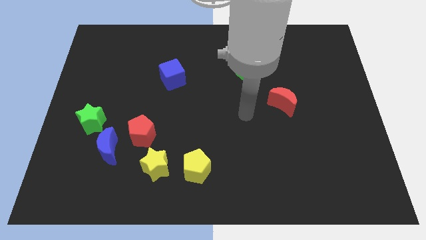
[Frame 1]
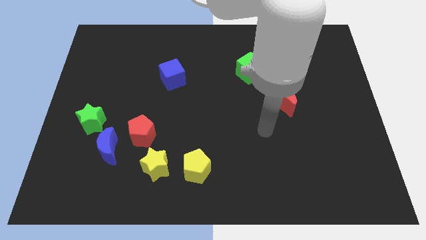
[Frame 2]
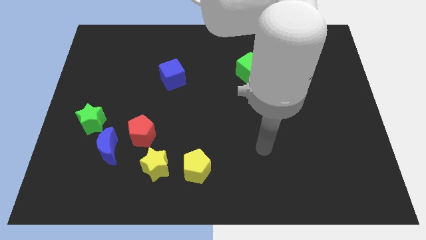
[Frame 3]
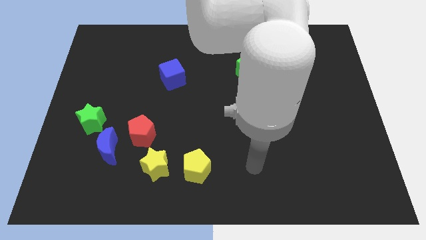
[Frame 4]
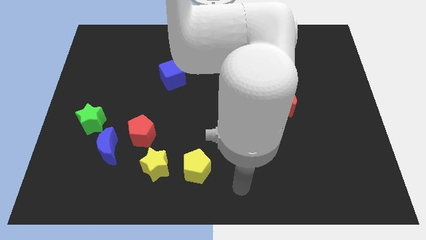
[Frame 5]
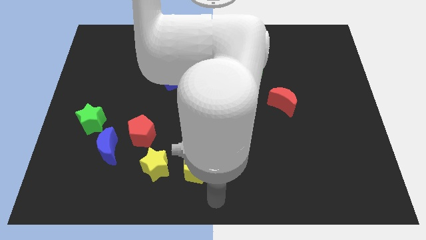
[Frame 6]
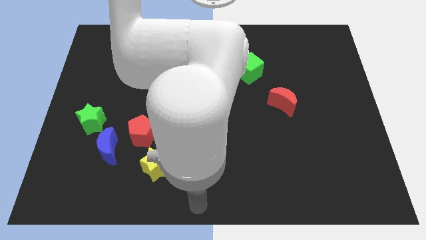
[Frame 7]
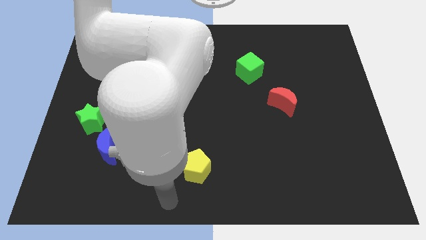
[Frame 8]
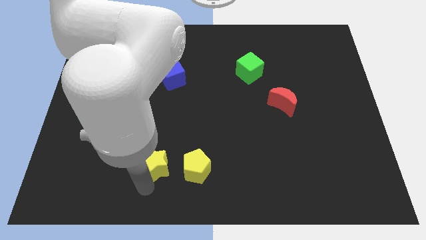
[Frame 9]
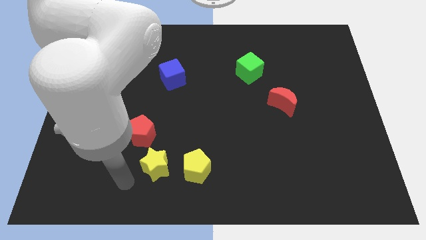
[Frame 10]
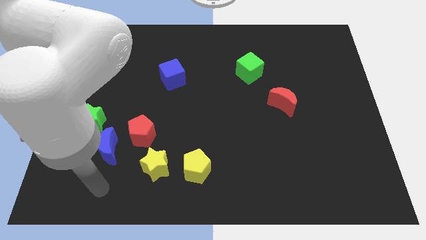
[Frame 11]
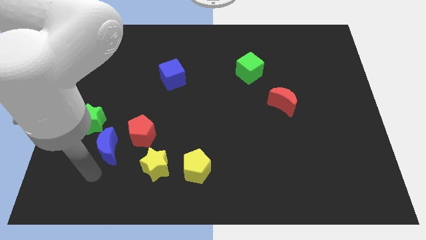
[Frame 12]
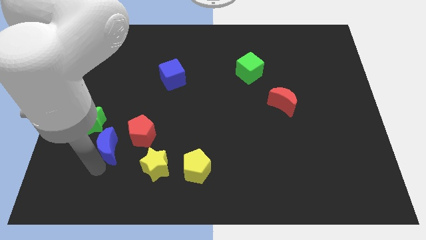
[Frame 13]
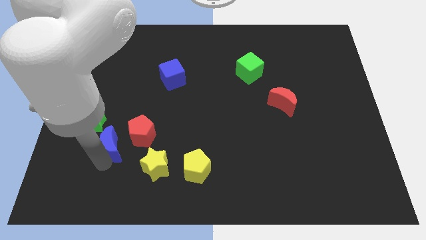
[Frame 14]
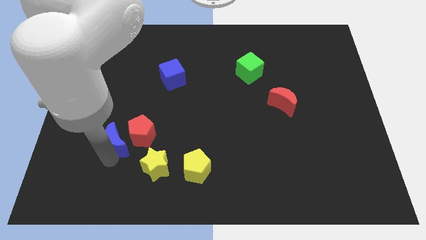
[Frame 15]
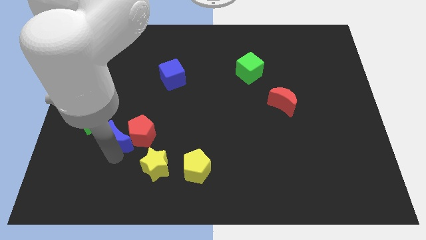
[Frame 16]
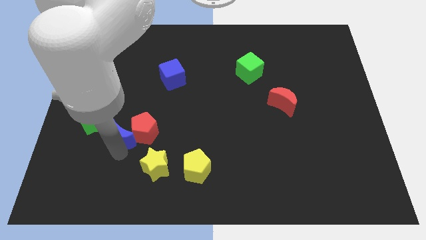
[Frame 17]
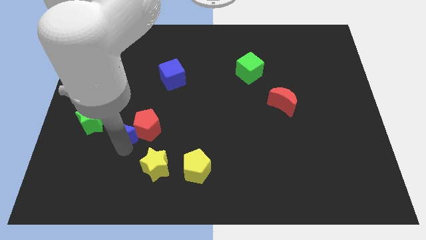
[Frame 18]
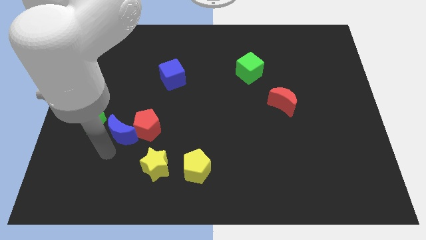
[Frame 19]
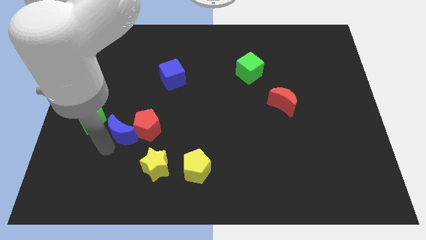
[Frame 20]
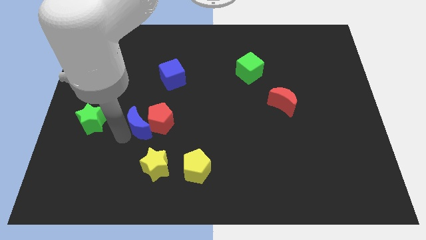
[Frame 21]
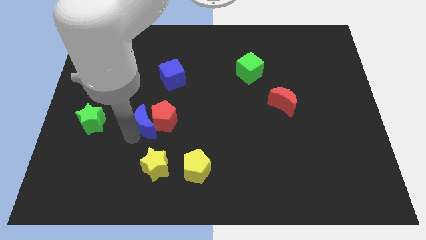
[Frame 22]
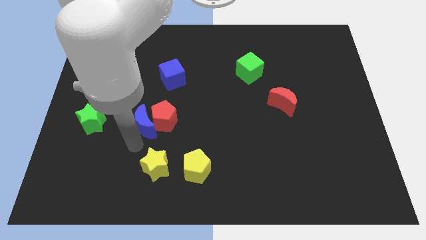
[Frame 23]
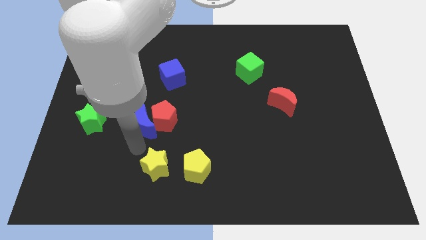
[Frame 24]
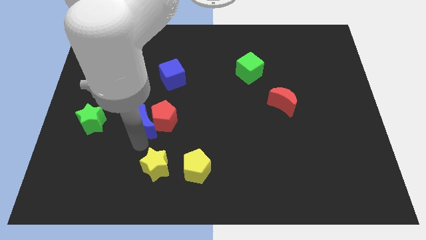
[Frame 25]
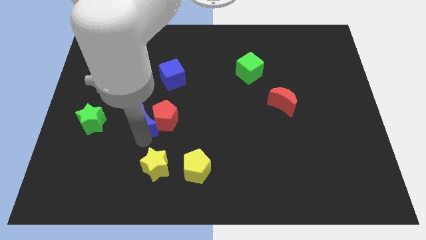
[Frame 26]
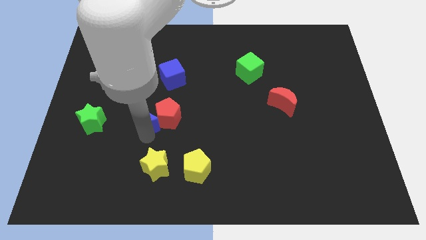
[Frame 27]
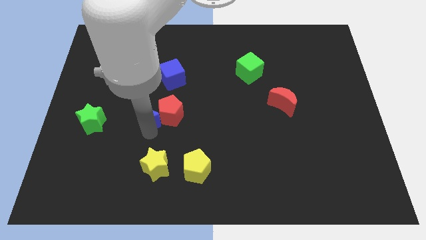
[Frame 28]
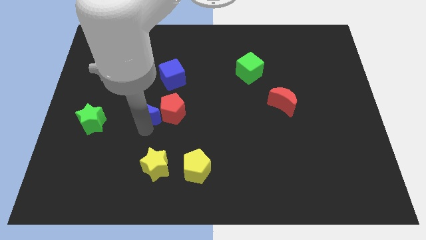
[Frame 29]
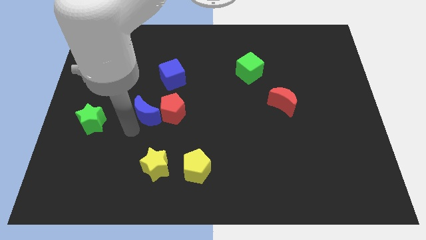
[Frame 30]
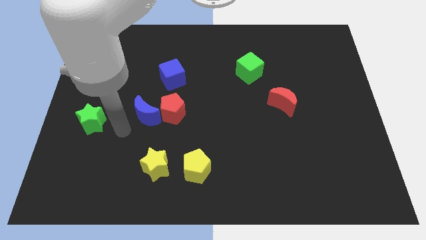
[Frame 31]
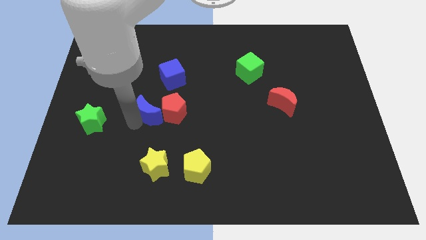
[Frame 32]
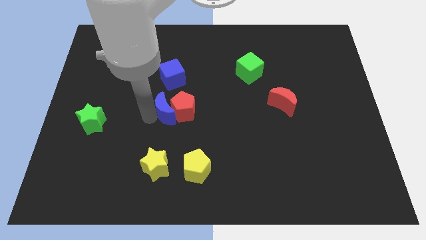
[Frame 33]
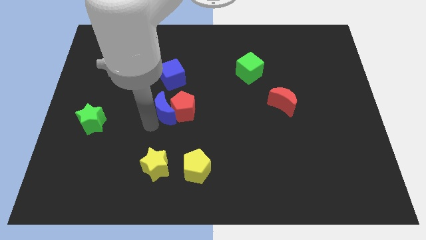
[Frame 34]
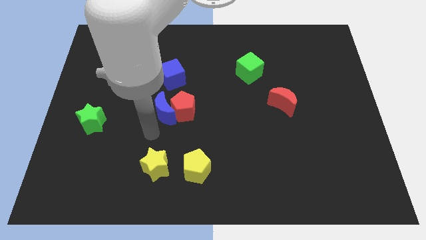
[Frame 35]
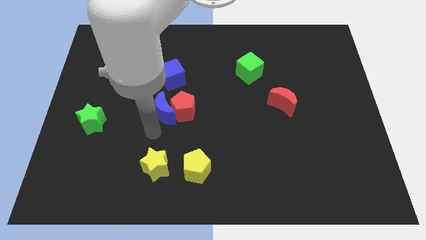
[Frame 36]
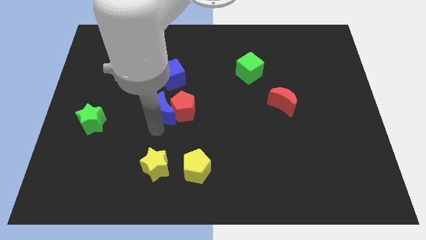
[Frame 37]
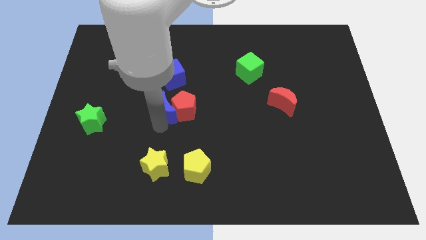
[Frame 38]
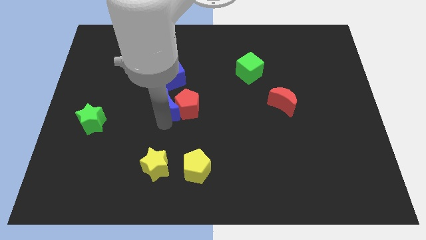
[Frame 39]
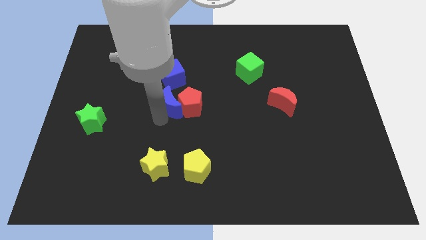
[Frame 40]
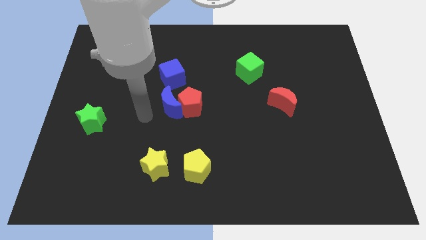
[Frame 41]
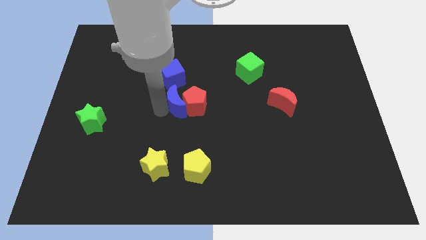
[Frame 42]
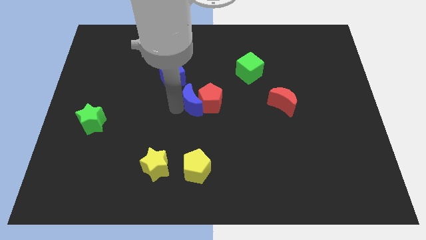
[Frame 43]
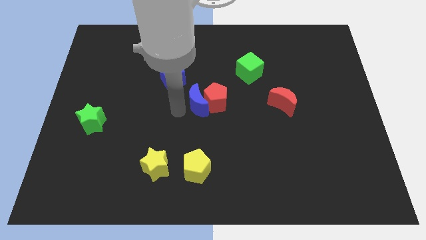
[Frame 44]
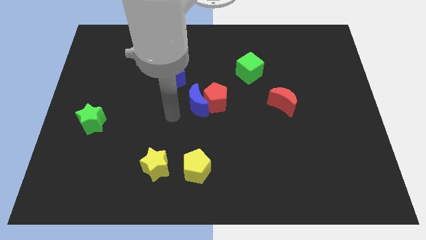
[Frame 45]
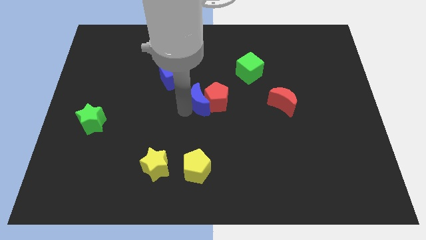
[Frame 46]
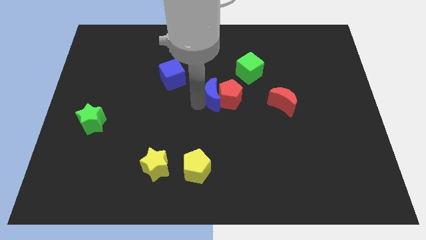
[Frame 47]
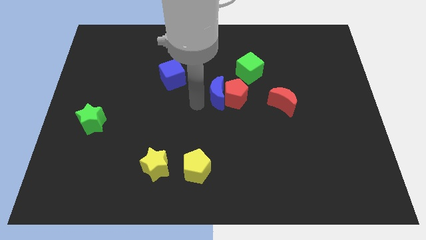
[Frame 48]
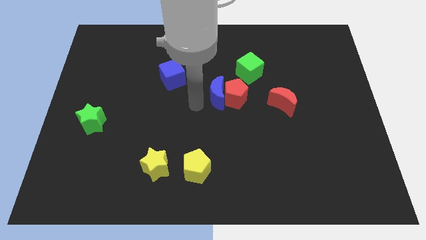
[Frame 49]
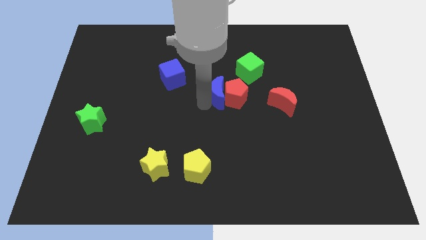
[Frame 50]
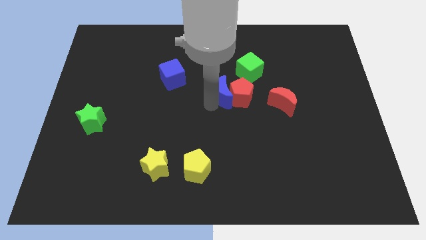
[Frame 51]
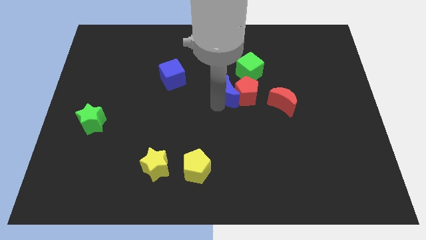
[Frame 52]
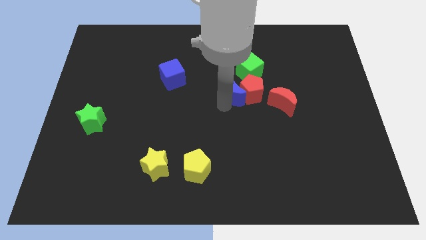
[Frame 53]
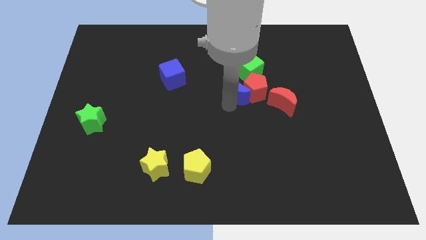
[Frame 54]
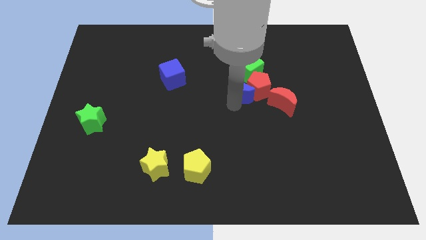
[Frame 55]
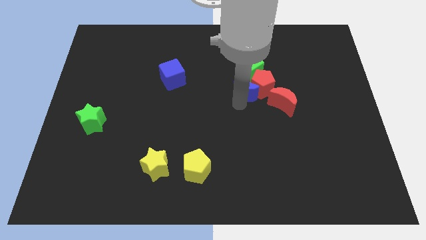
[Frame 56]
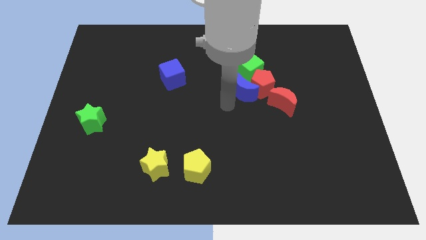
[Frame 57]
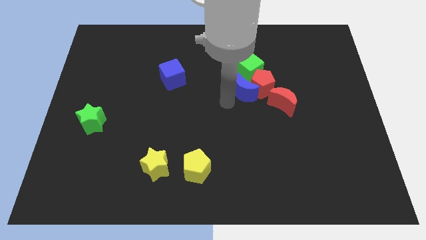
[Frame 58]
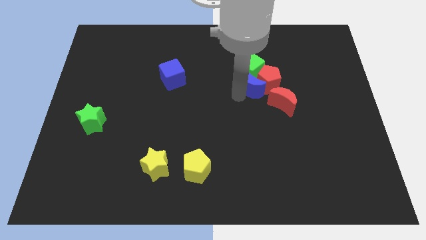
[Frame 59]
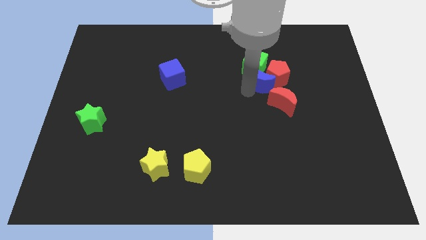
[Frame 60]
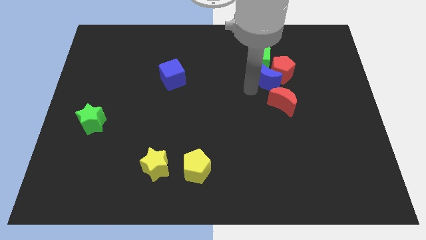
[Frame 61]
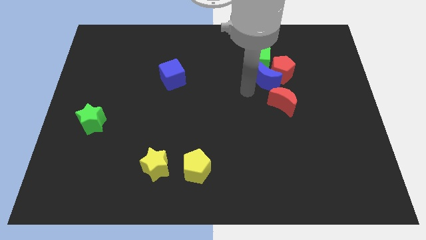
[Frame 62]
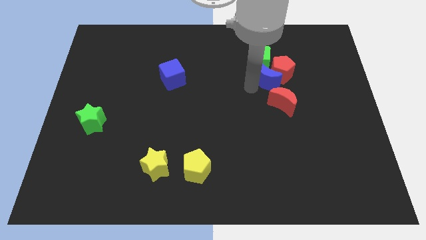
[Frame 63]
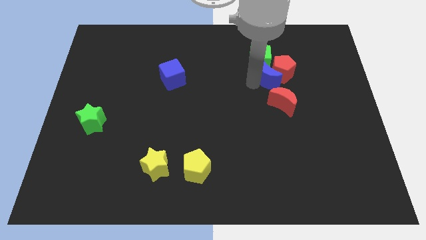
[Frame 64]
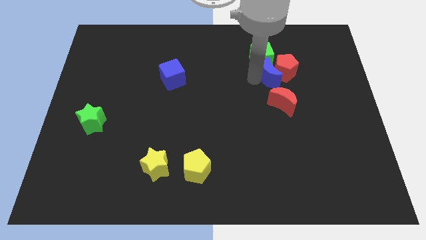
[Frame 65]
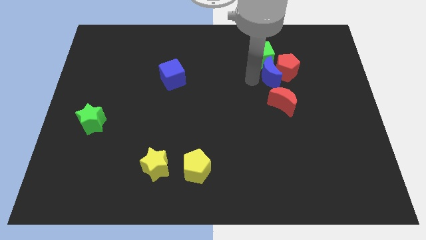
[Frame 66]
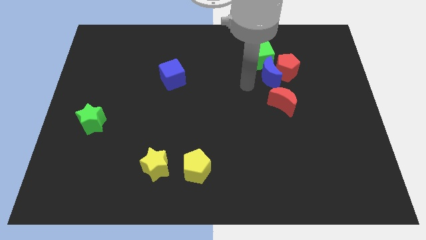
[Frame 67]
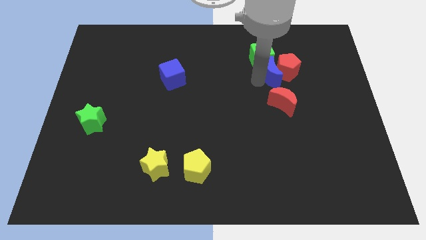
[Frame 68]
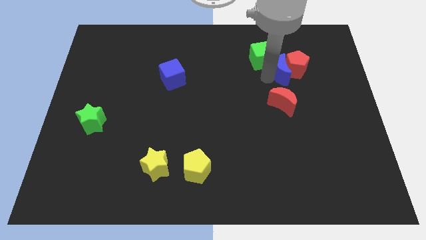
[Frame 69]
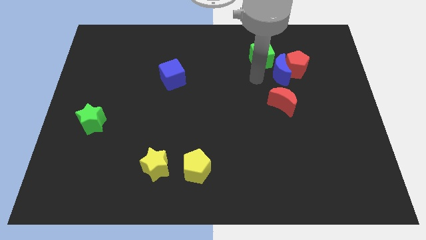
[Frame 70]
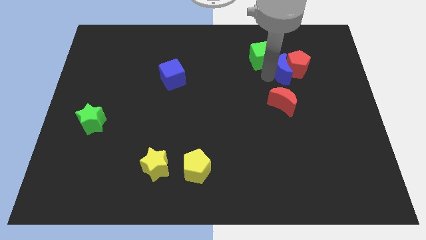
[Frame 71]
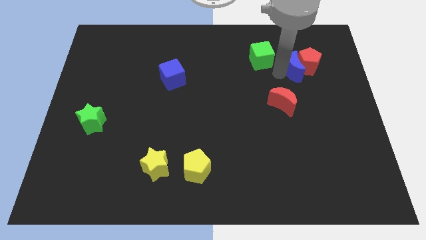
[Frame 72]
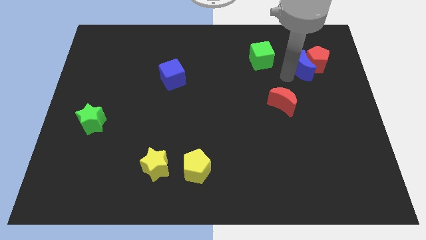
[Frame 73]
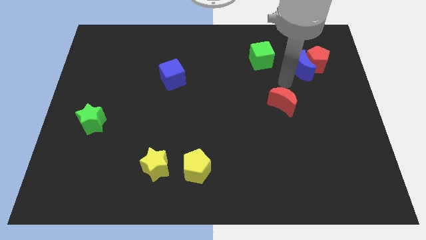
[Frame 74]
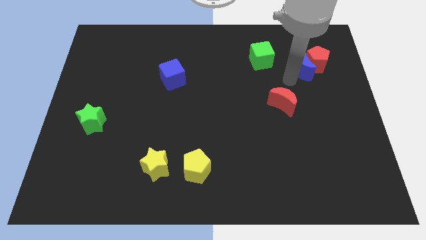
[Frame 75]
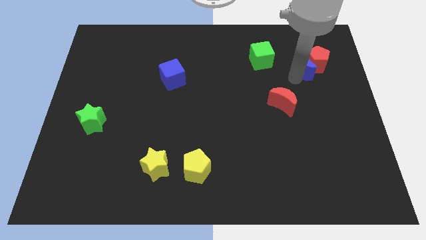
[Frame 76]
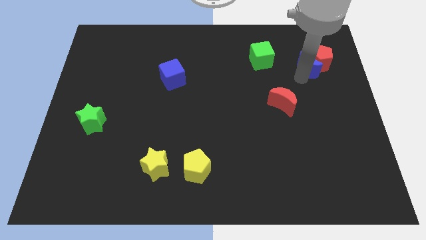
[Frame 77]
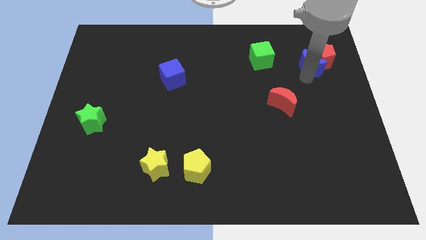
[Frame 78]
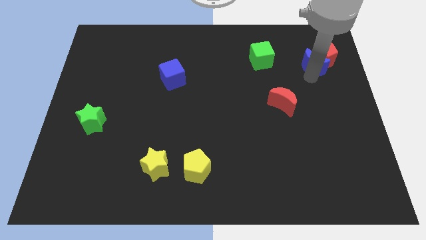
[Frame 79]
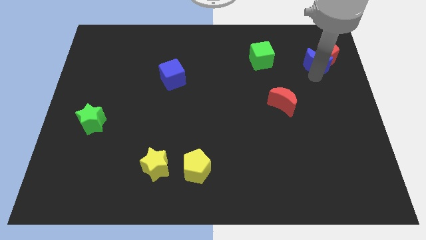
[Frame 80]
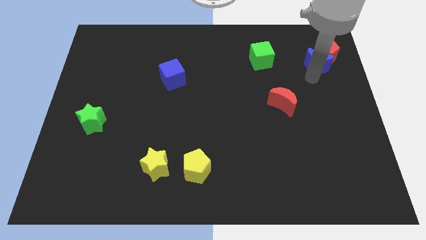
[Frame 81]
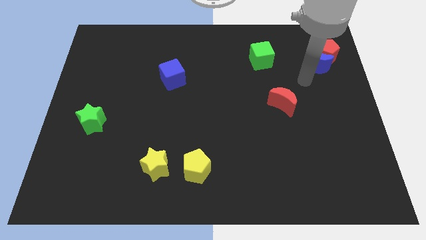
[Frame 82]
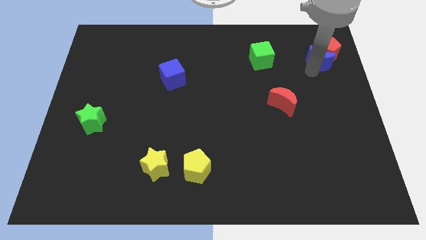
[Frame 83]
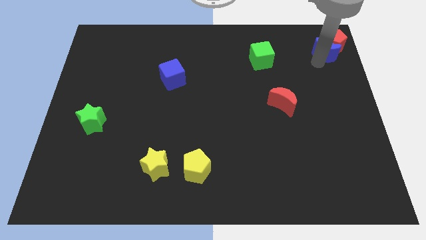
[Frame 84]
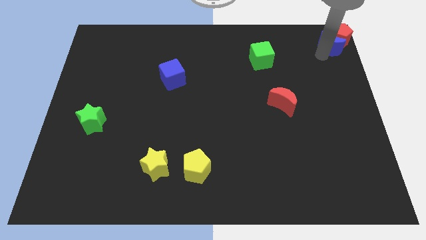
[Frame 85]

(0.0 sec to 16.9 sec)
push the blue moon to the top right
